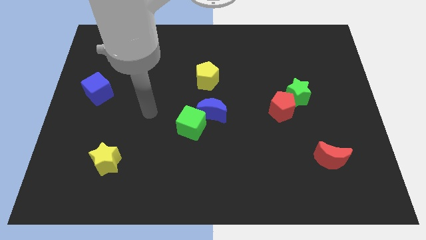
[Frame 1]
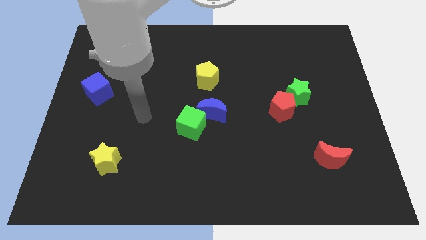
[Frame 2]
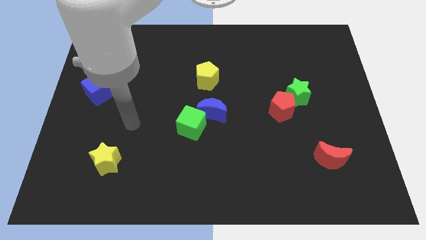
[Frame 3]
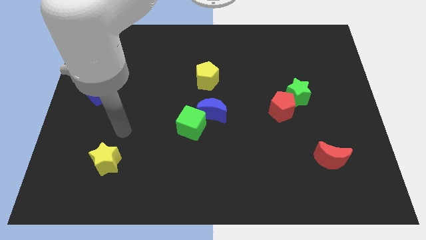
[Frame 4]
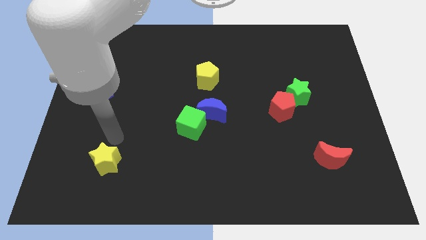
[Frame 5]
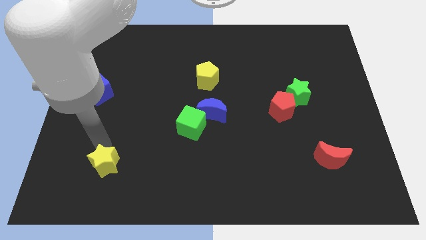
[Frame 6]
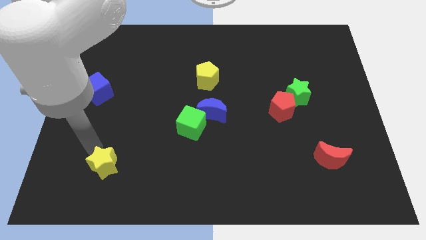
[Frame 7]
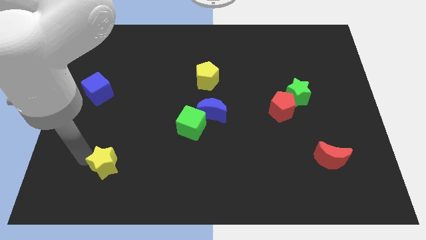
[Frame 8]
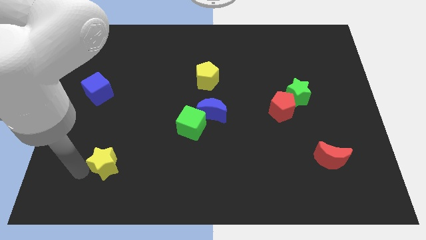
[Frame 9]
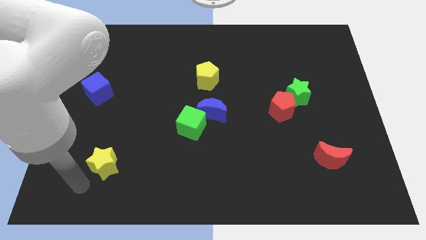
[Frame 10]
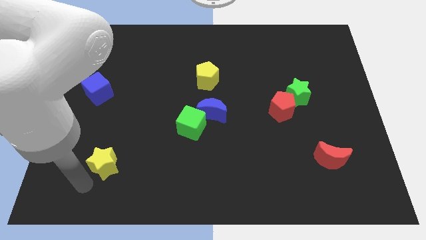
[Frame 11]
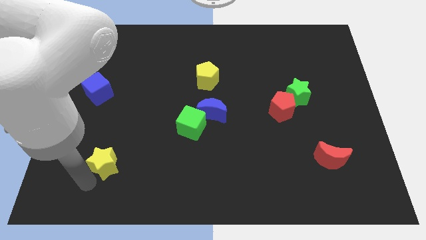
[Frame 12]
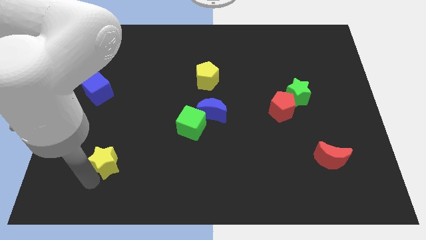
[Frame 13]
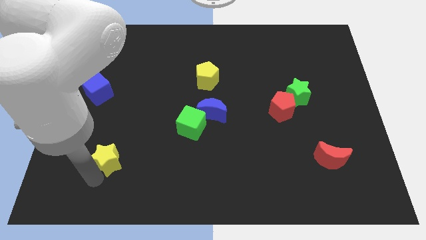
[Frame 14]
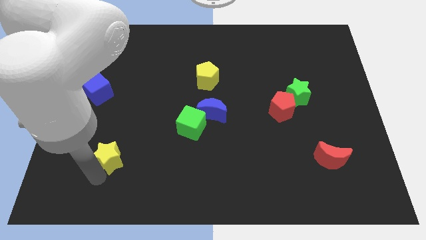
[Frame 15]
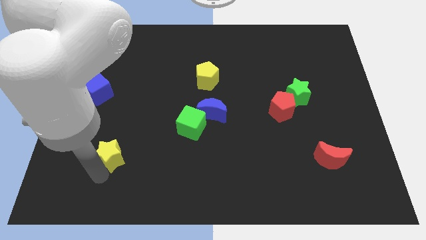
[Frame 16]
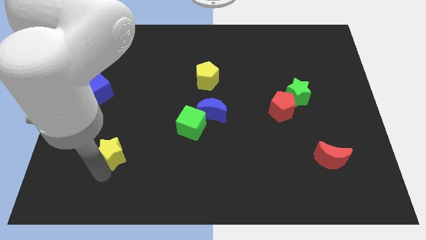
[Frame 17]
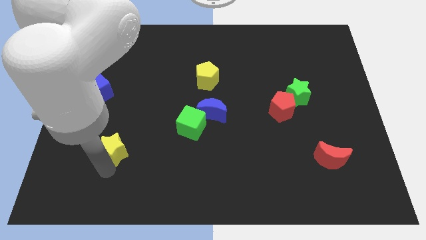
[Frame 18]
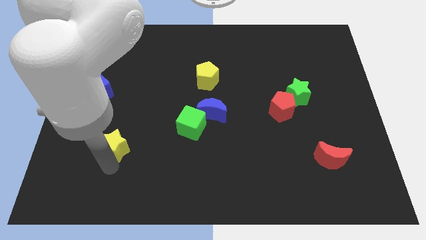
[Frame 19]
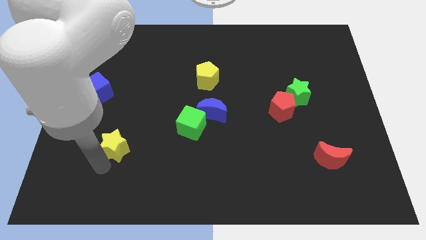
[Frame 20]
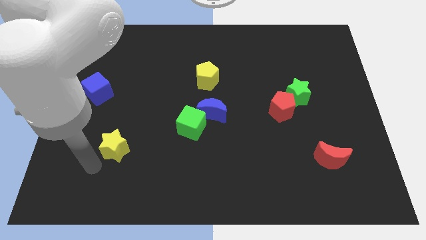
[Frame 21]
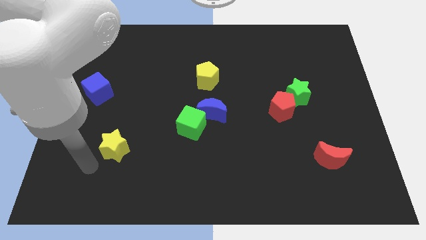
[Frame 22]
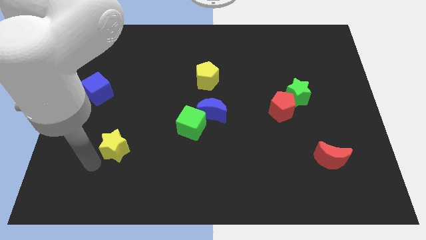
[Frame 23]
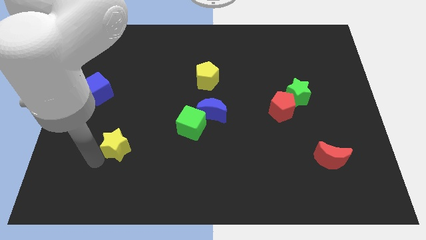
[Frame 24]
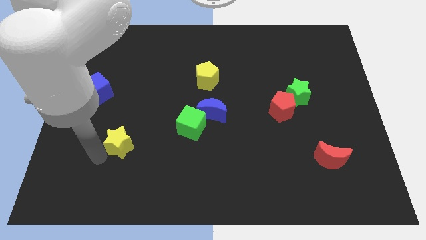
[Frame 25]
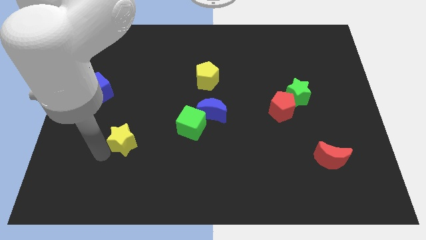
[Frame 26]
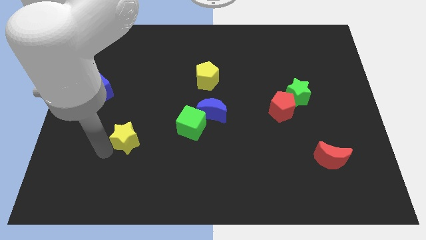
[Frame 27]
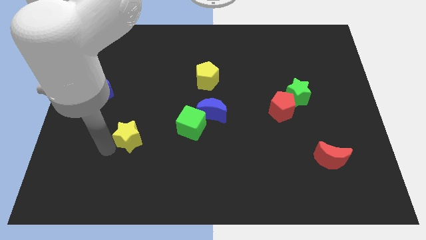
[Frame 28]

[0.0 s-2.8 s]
move the yellow star up and to the right diagonally slightly

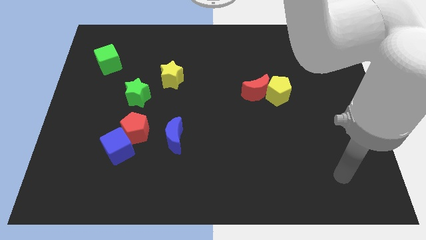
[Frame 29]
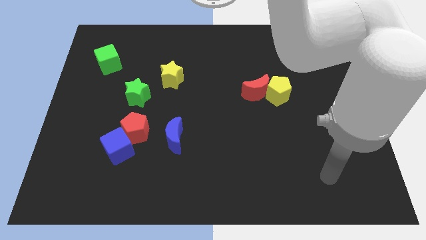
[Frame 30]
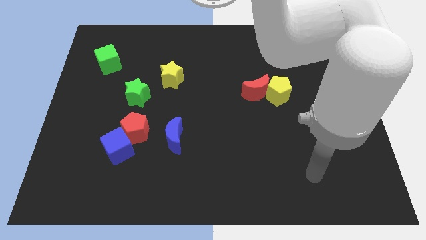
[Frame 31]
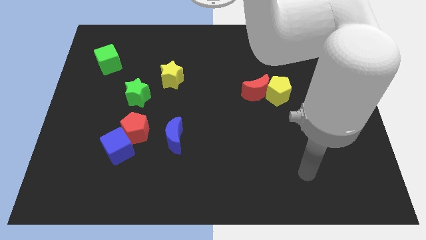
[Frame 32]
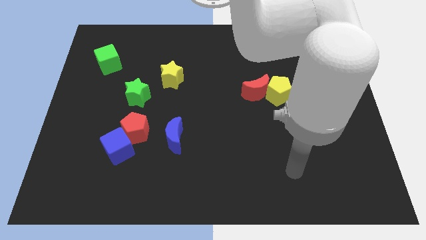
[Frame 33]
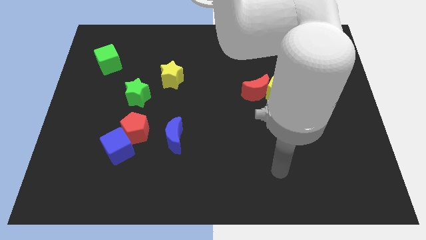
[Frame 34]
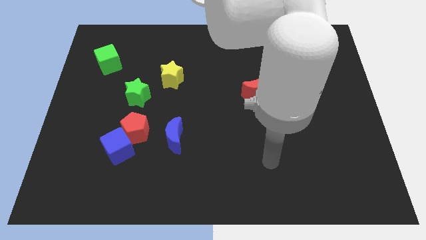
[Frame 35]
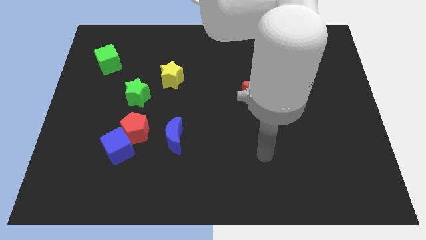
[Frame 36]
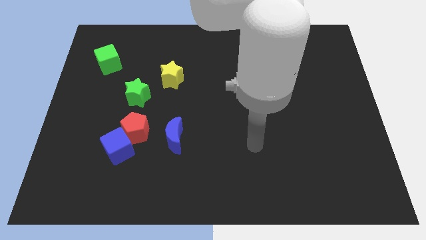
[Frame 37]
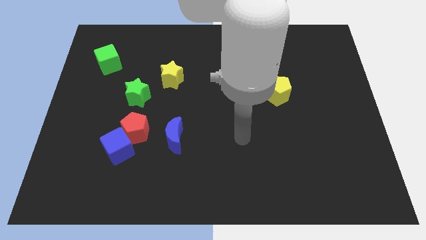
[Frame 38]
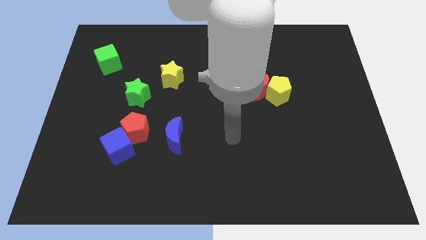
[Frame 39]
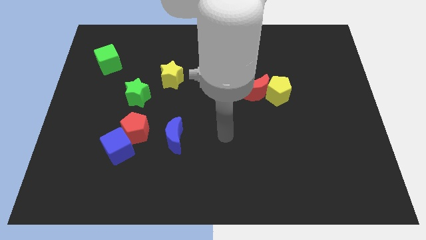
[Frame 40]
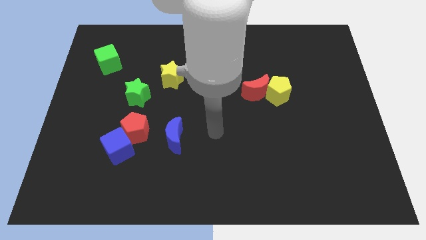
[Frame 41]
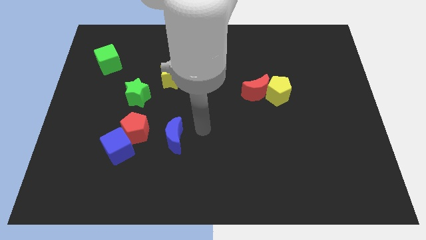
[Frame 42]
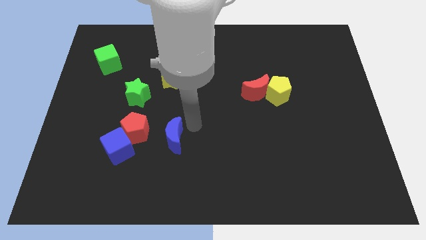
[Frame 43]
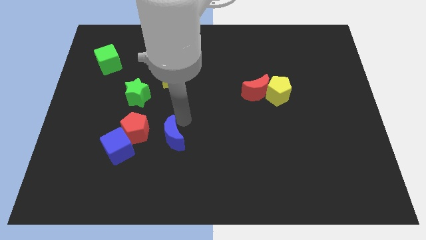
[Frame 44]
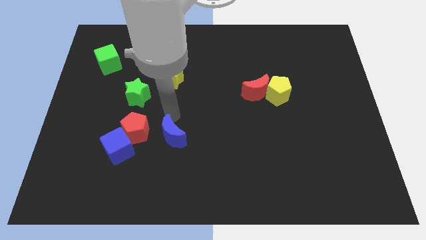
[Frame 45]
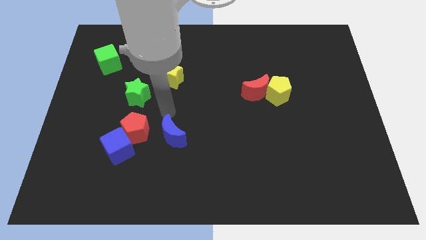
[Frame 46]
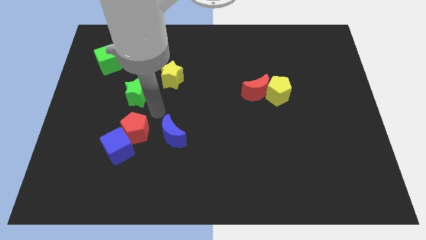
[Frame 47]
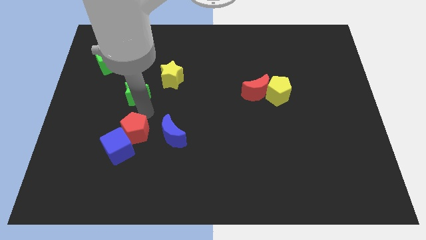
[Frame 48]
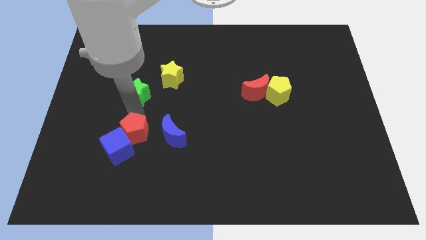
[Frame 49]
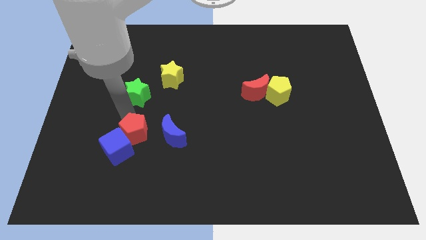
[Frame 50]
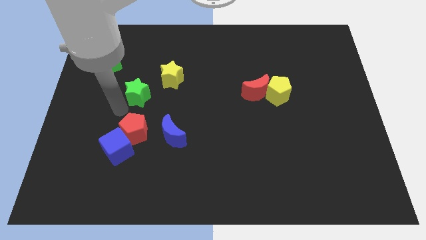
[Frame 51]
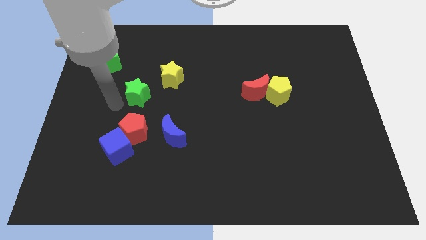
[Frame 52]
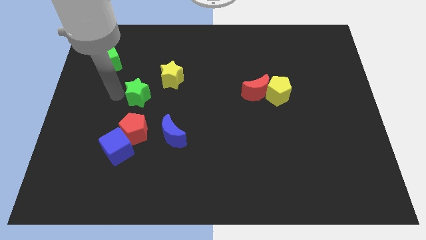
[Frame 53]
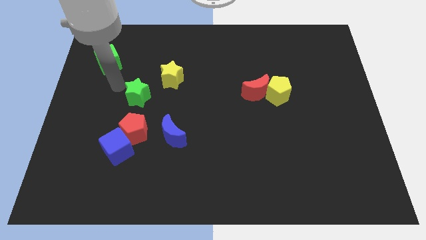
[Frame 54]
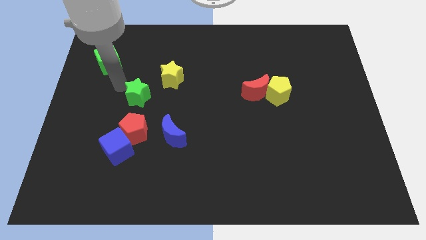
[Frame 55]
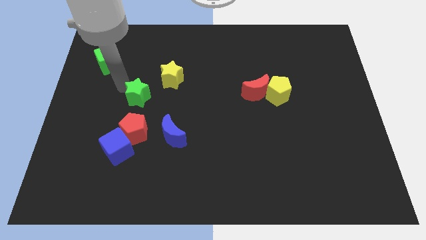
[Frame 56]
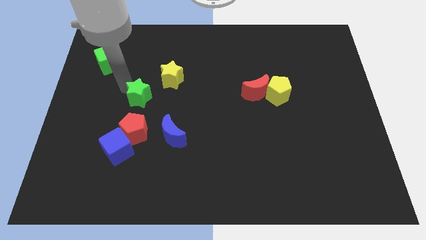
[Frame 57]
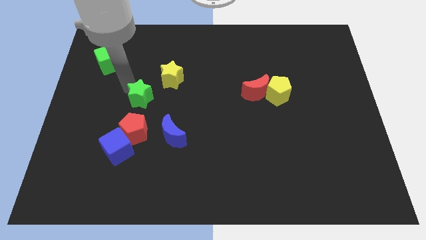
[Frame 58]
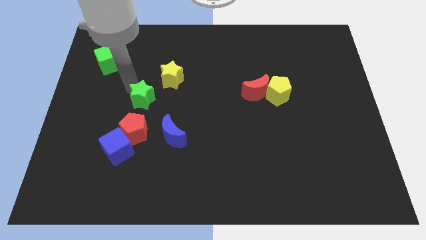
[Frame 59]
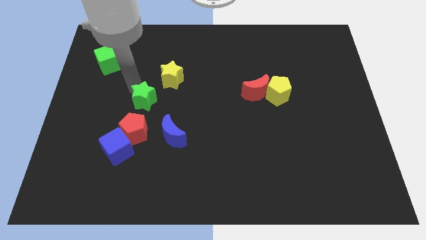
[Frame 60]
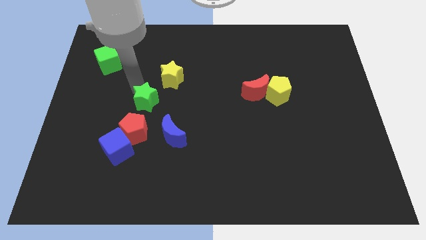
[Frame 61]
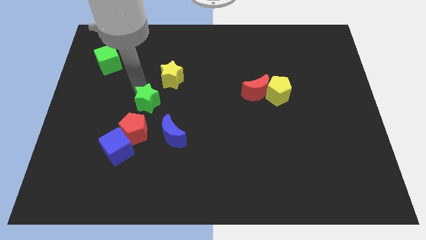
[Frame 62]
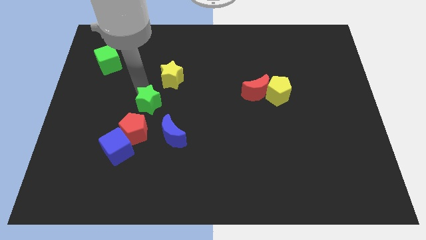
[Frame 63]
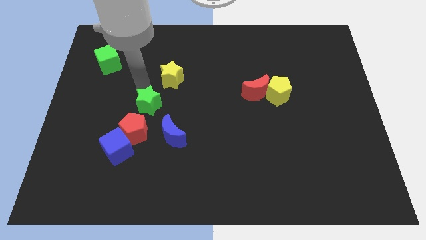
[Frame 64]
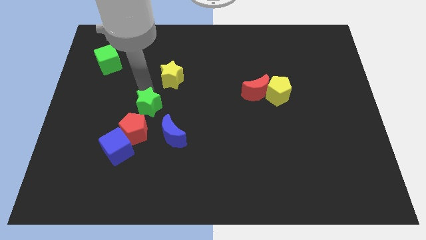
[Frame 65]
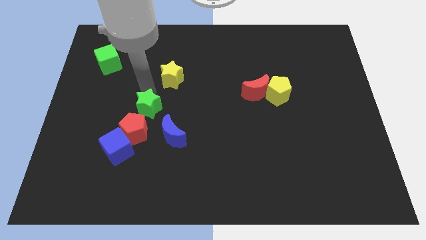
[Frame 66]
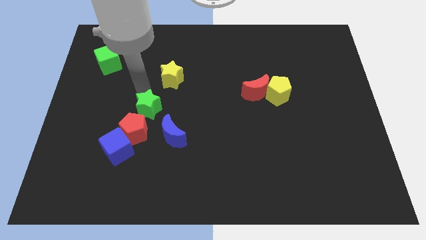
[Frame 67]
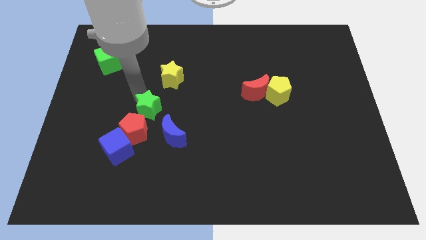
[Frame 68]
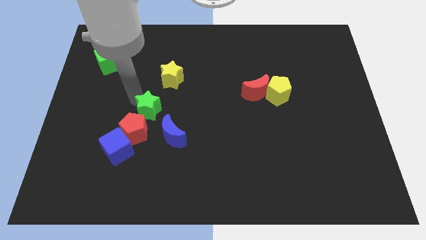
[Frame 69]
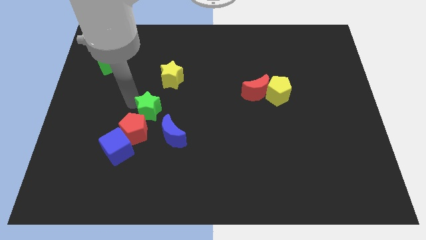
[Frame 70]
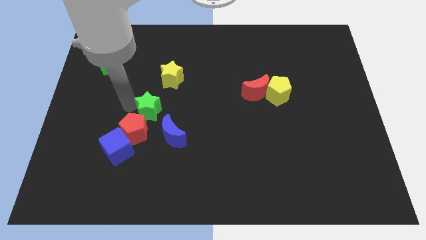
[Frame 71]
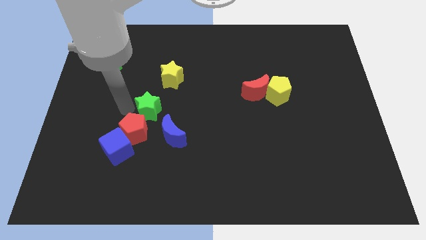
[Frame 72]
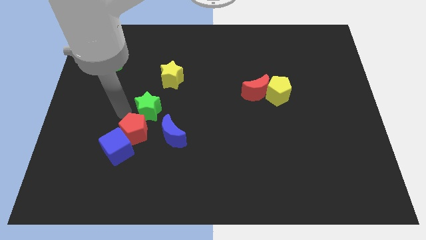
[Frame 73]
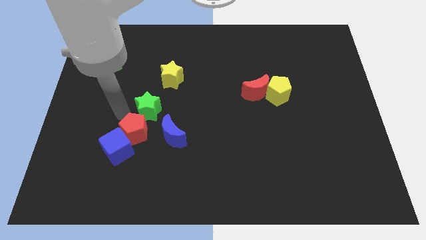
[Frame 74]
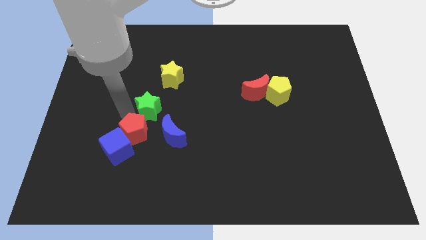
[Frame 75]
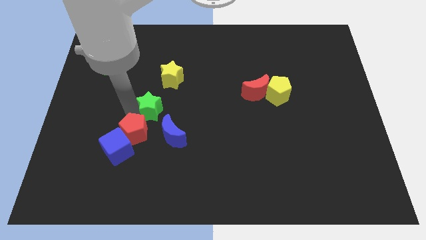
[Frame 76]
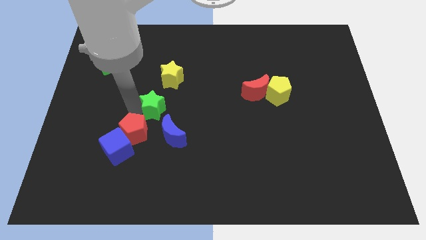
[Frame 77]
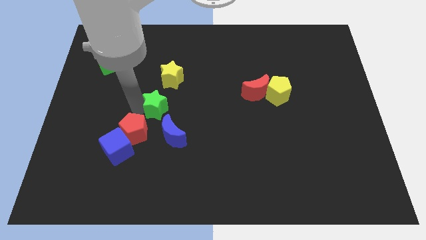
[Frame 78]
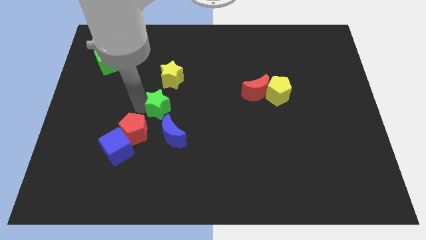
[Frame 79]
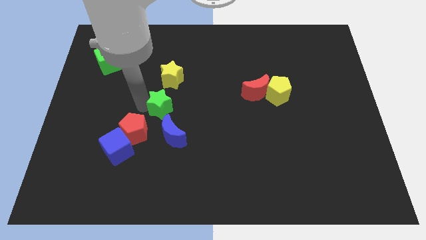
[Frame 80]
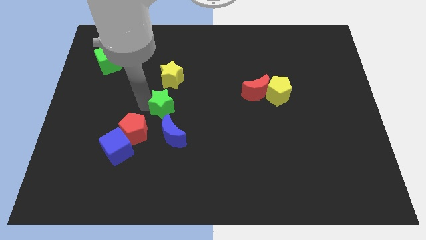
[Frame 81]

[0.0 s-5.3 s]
push the green star a bit downwards and to the right diagonally
